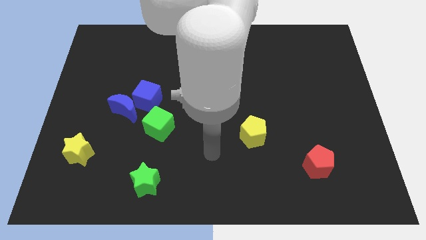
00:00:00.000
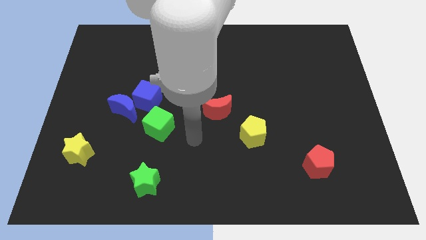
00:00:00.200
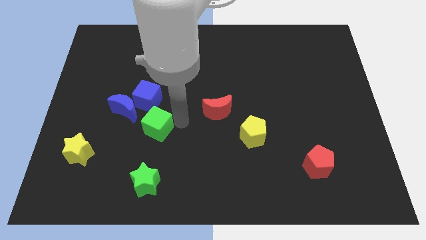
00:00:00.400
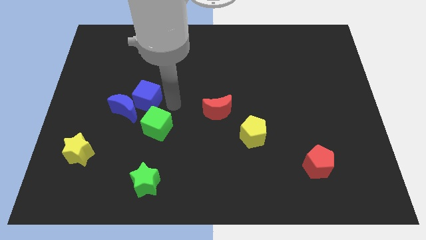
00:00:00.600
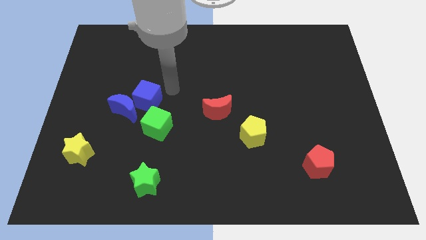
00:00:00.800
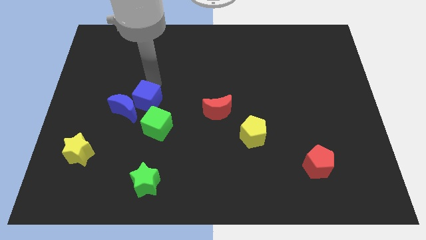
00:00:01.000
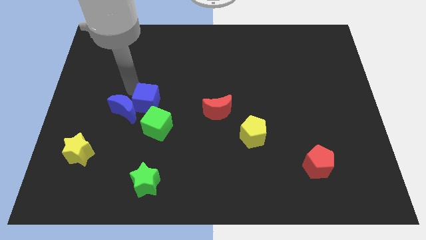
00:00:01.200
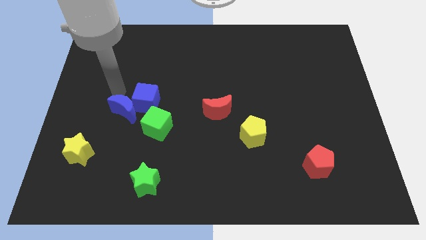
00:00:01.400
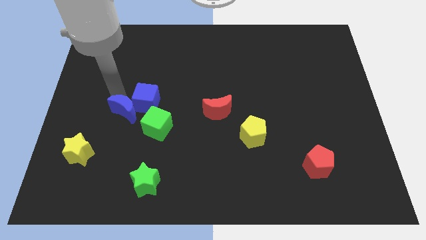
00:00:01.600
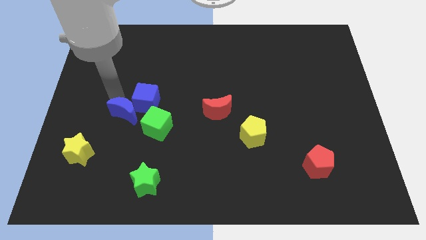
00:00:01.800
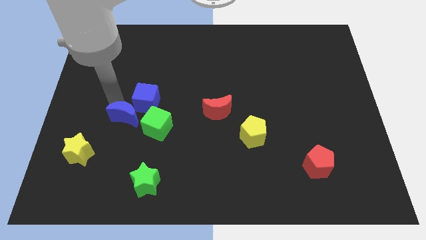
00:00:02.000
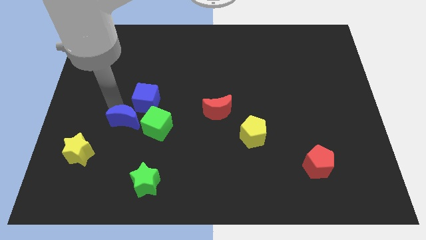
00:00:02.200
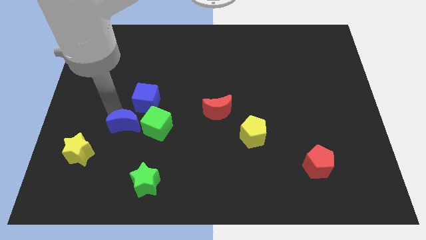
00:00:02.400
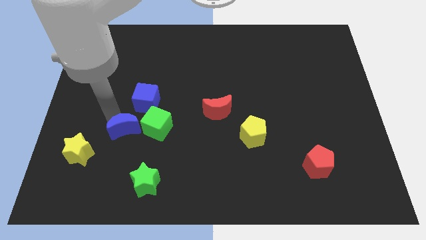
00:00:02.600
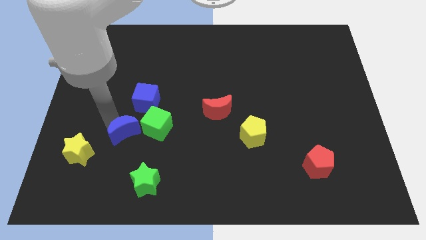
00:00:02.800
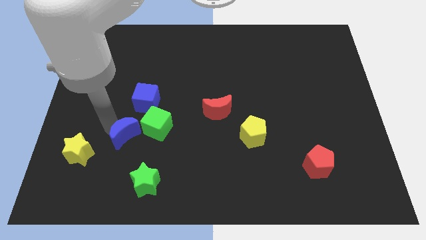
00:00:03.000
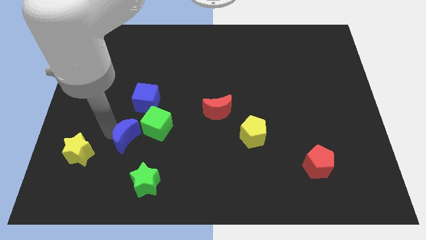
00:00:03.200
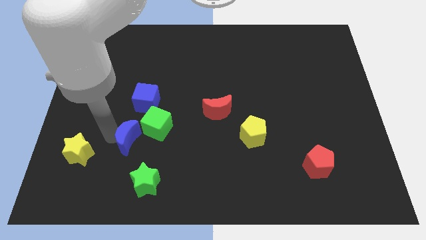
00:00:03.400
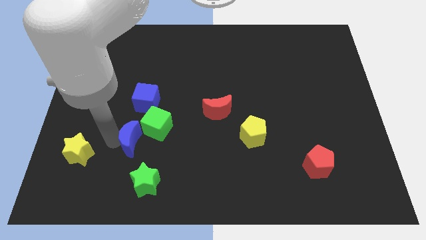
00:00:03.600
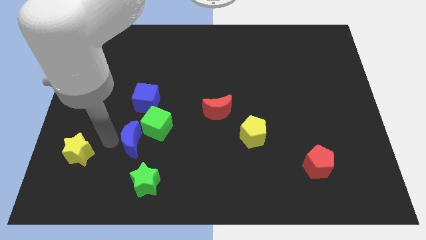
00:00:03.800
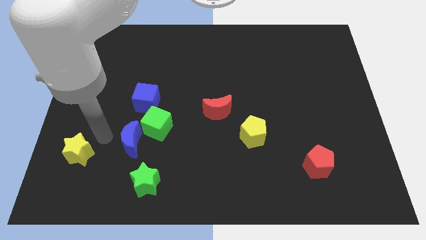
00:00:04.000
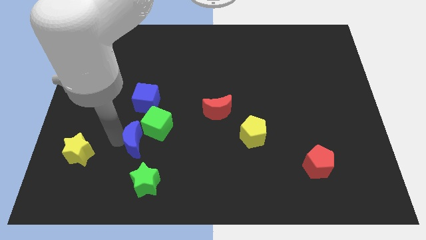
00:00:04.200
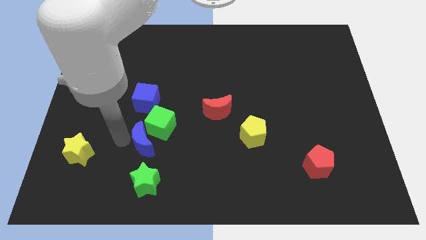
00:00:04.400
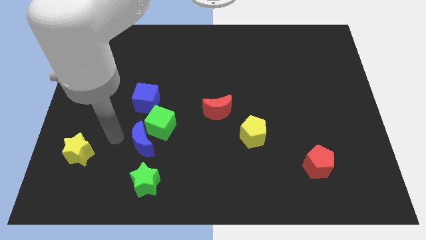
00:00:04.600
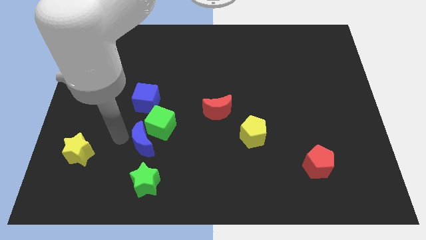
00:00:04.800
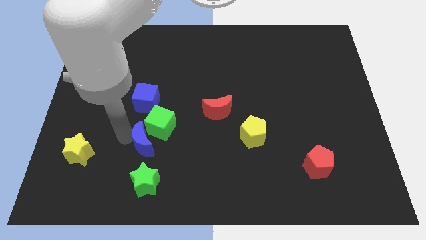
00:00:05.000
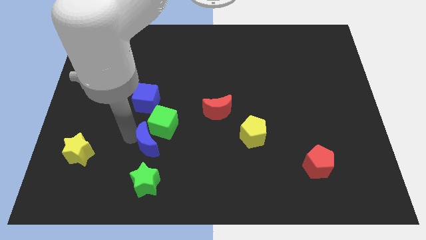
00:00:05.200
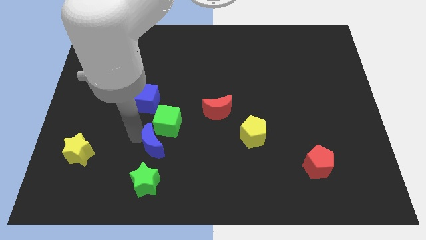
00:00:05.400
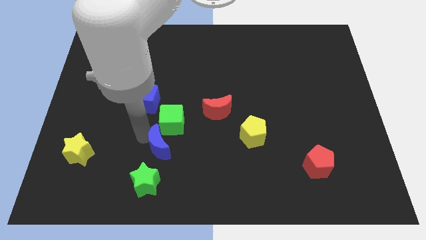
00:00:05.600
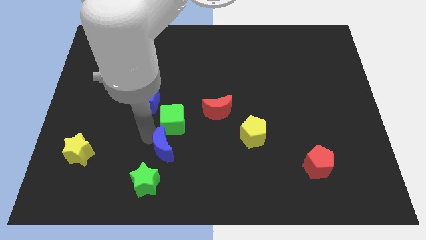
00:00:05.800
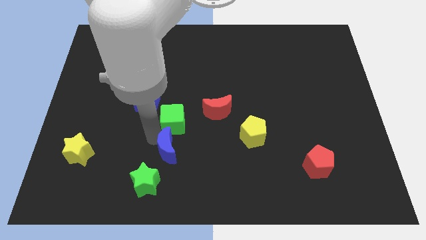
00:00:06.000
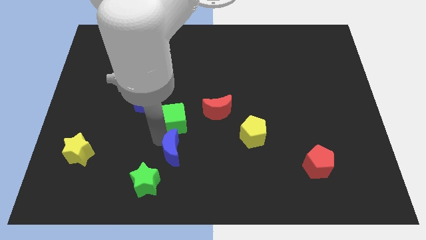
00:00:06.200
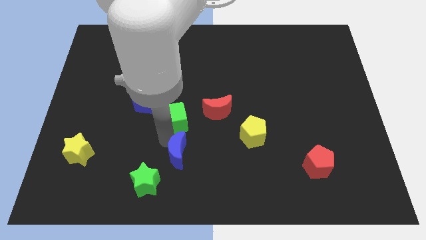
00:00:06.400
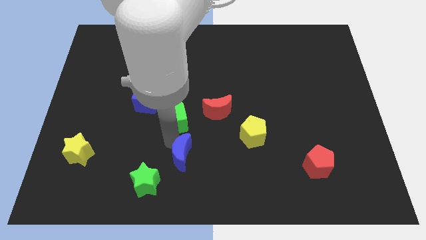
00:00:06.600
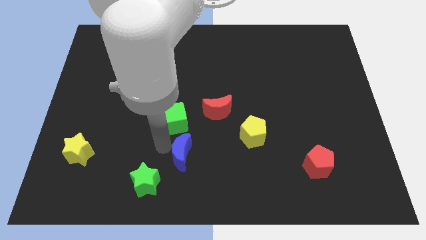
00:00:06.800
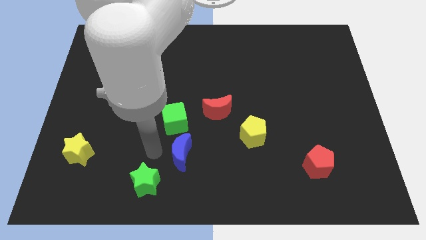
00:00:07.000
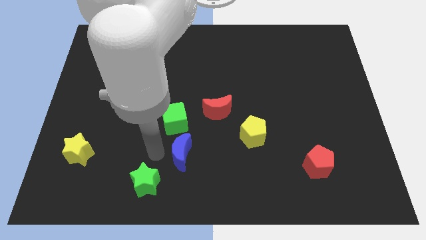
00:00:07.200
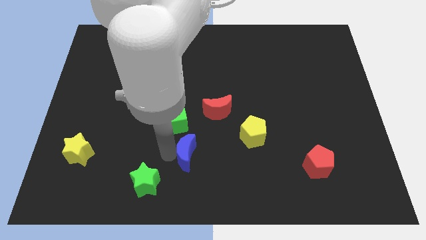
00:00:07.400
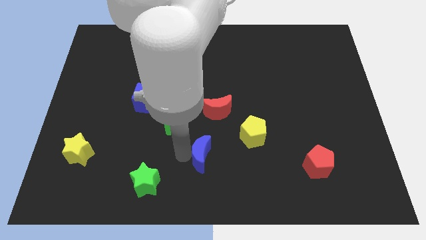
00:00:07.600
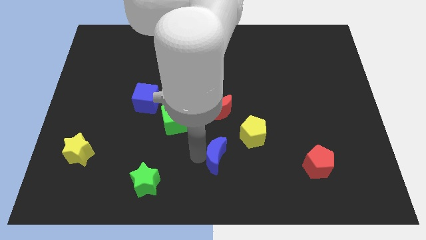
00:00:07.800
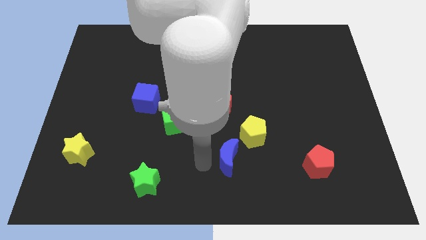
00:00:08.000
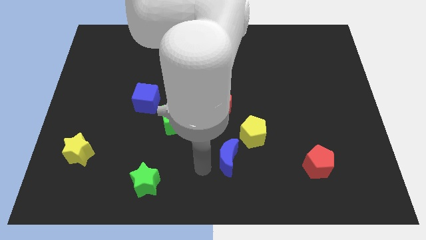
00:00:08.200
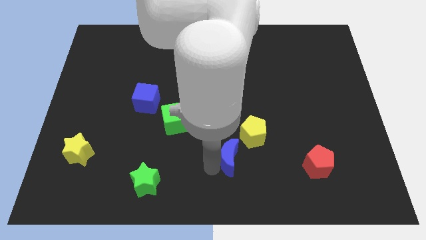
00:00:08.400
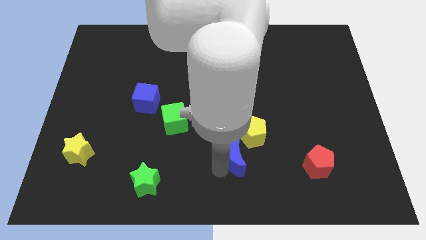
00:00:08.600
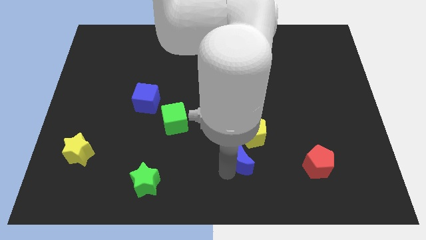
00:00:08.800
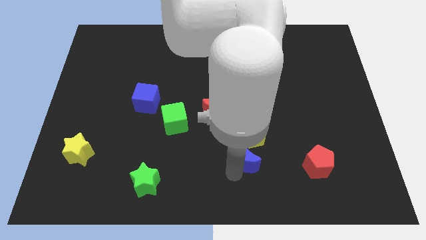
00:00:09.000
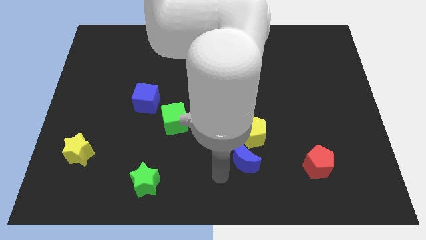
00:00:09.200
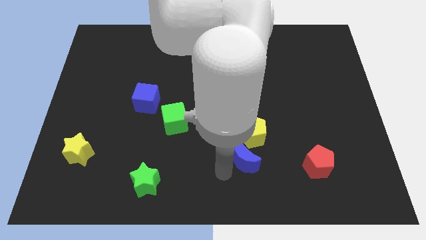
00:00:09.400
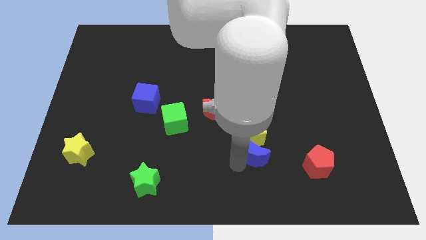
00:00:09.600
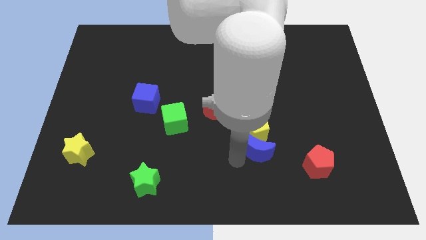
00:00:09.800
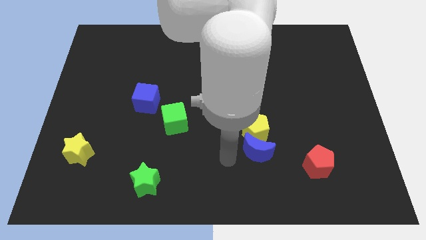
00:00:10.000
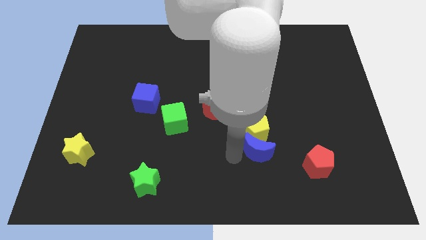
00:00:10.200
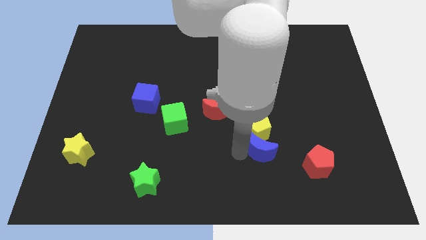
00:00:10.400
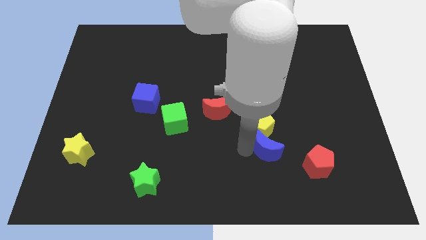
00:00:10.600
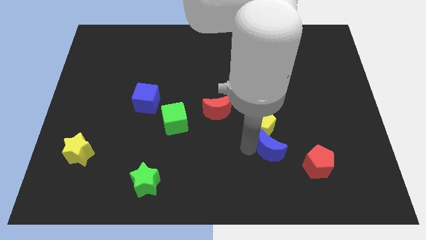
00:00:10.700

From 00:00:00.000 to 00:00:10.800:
slide the blue moon diagonally up and to the left of the red pentagon
